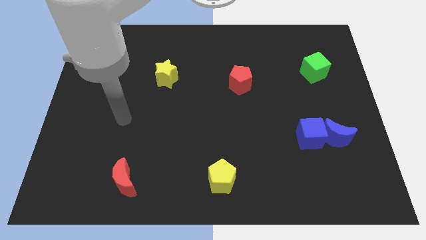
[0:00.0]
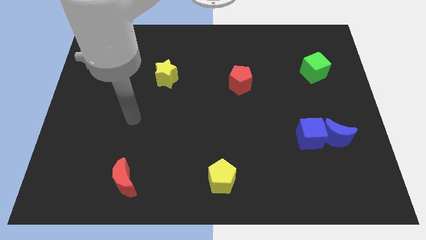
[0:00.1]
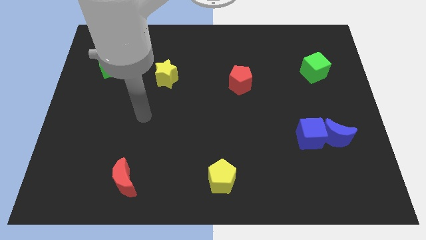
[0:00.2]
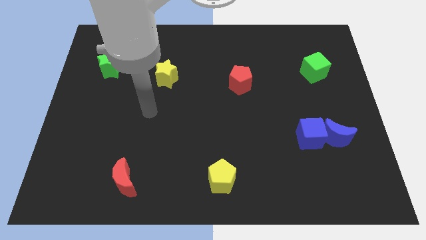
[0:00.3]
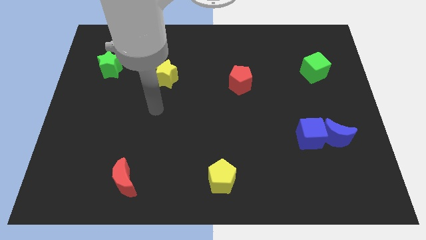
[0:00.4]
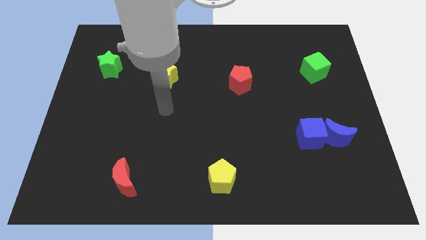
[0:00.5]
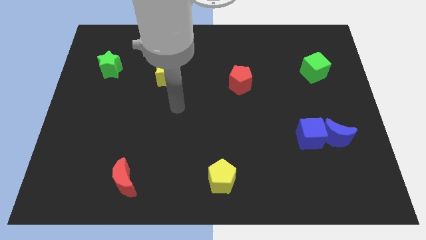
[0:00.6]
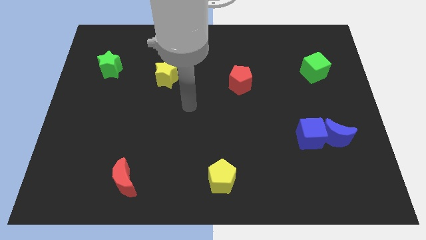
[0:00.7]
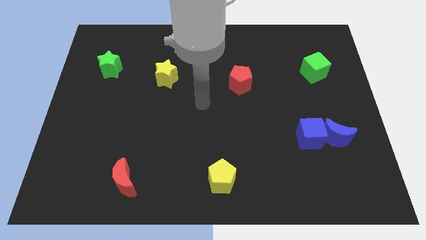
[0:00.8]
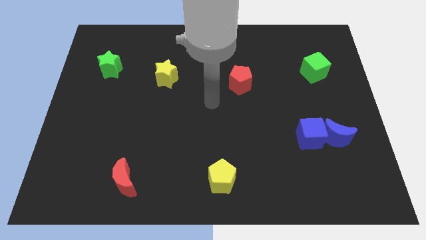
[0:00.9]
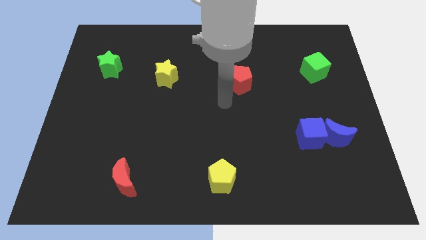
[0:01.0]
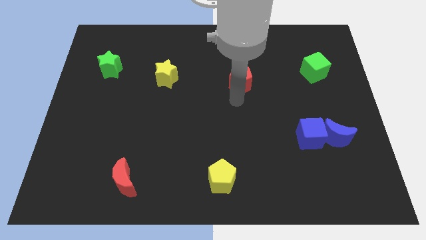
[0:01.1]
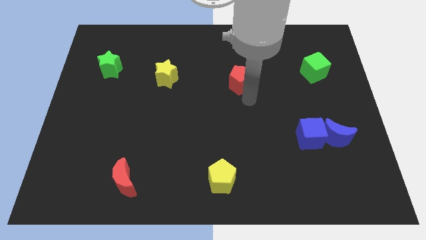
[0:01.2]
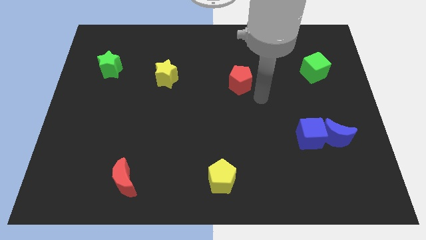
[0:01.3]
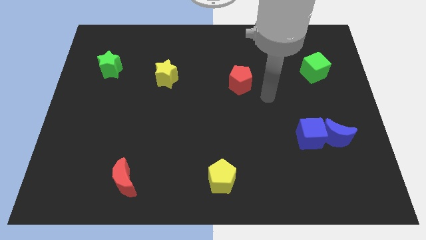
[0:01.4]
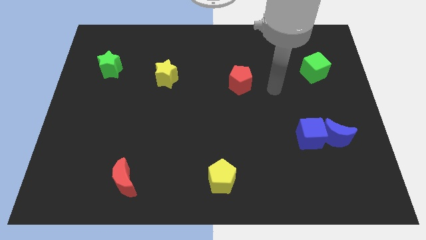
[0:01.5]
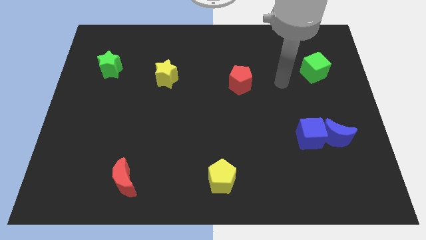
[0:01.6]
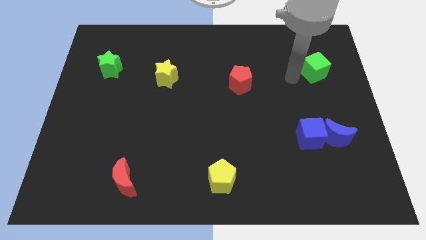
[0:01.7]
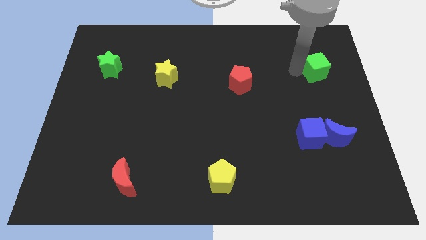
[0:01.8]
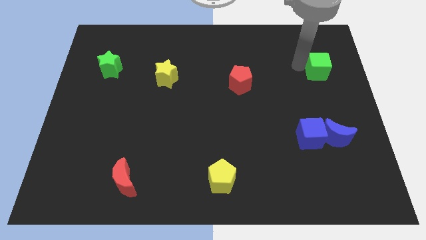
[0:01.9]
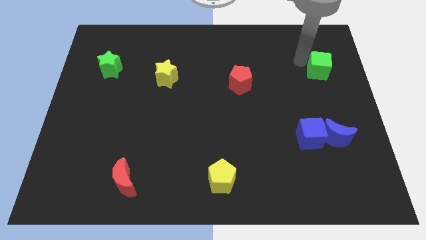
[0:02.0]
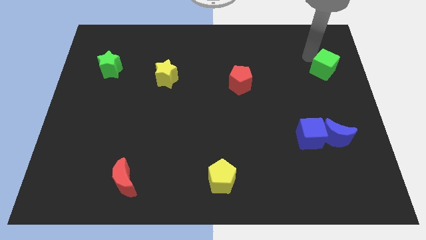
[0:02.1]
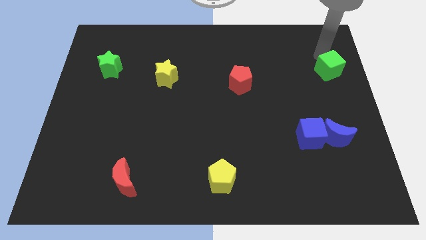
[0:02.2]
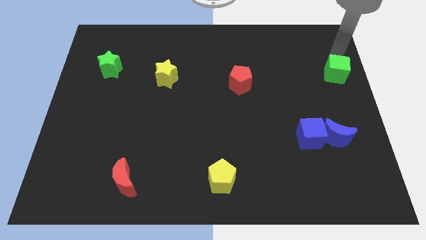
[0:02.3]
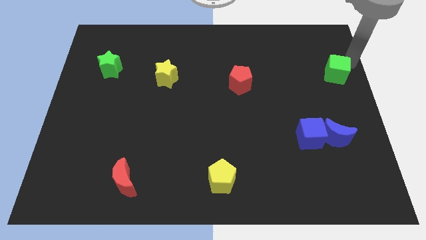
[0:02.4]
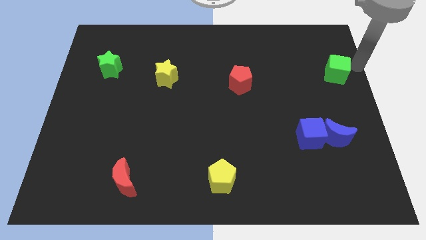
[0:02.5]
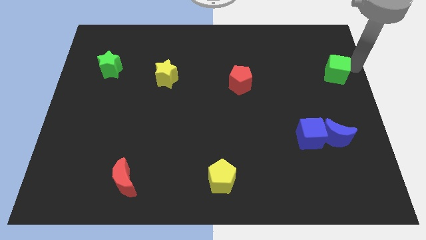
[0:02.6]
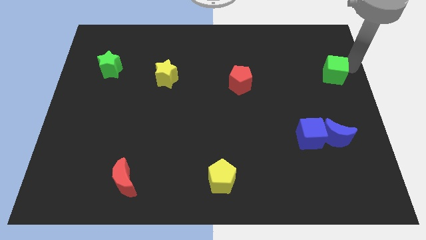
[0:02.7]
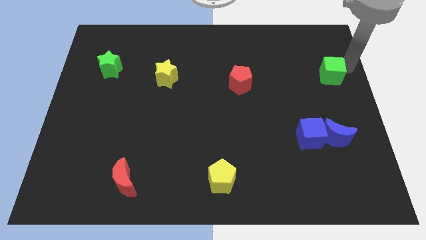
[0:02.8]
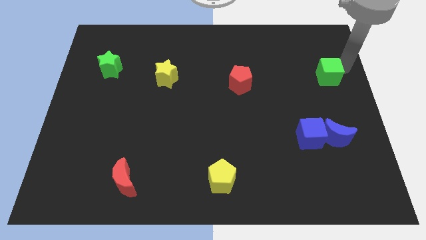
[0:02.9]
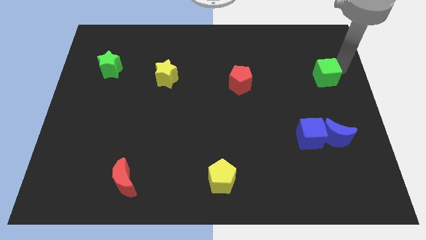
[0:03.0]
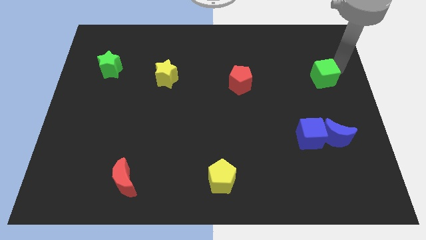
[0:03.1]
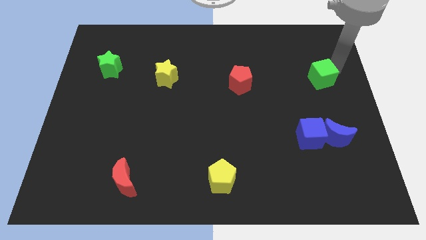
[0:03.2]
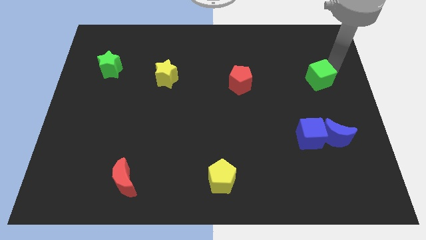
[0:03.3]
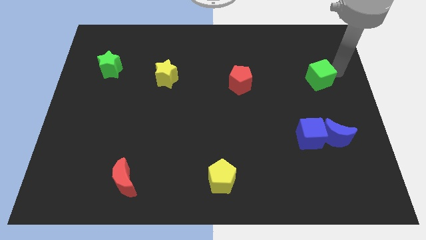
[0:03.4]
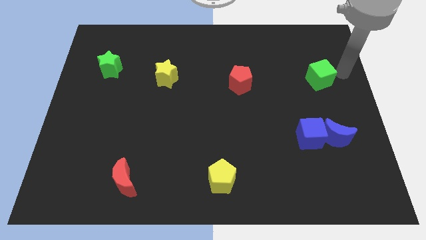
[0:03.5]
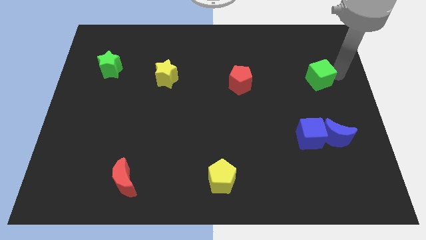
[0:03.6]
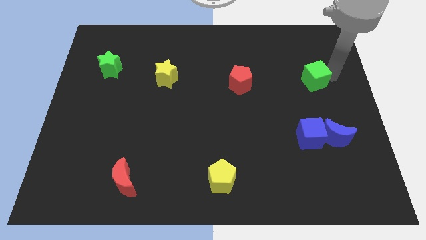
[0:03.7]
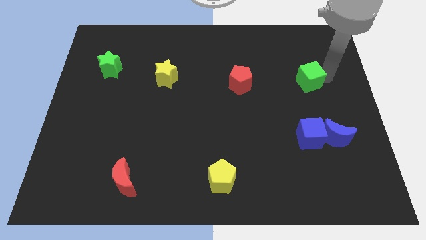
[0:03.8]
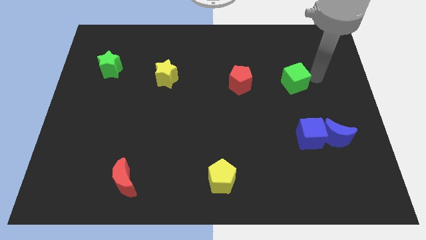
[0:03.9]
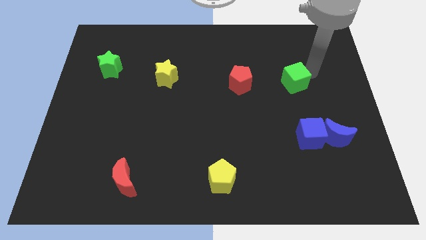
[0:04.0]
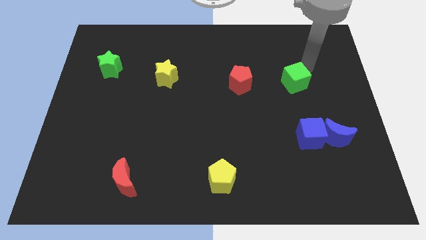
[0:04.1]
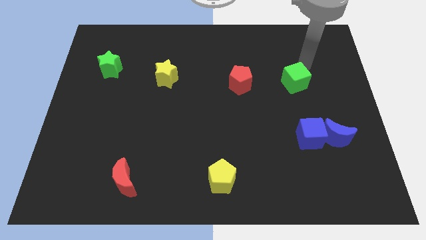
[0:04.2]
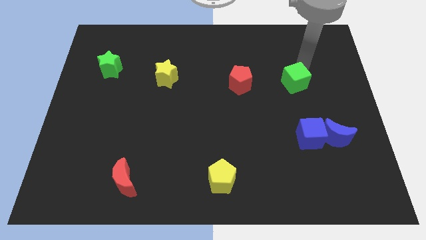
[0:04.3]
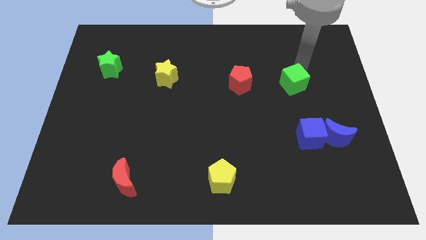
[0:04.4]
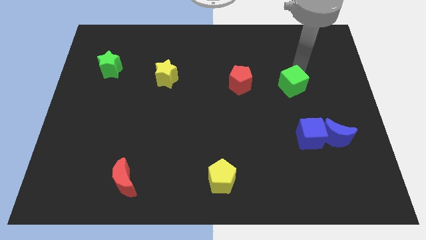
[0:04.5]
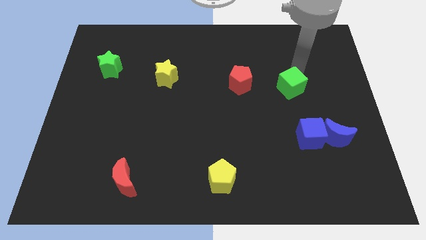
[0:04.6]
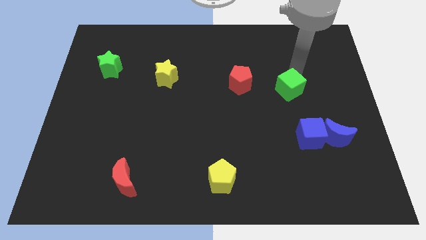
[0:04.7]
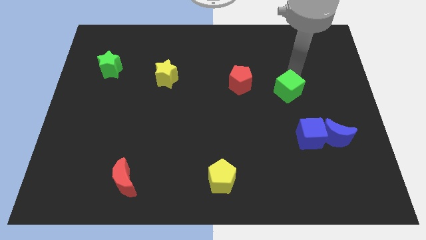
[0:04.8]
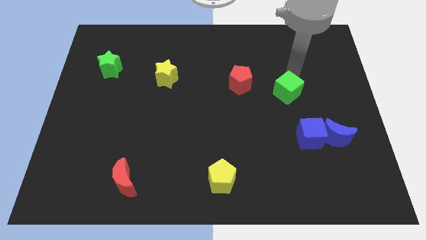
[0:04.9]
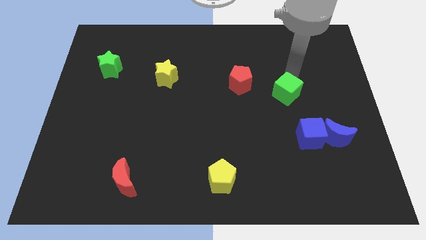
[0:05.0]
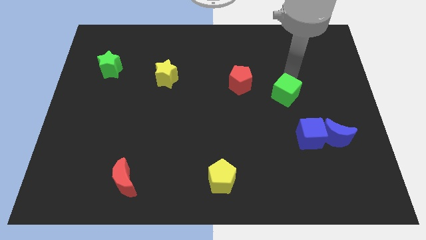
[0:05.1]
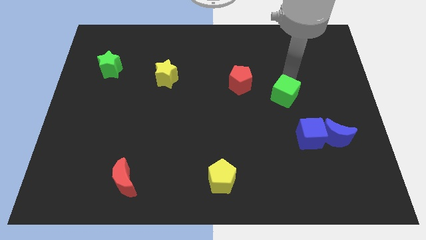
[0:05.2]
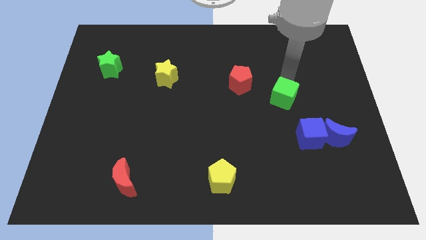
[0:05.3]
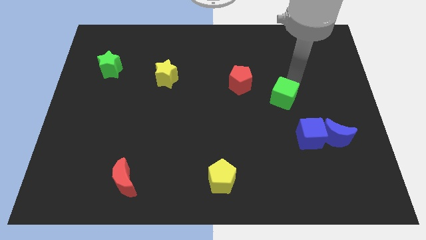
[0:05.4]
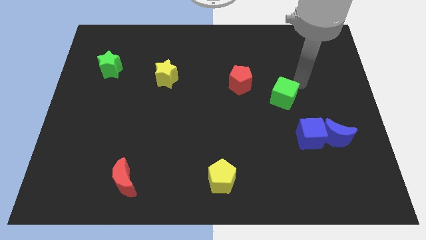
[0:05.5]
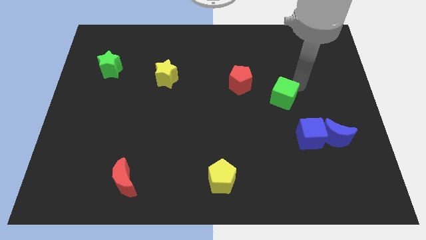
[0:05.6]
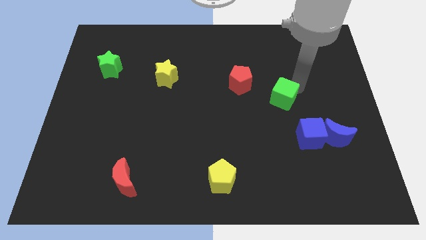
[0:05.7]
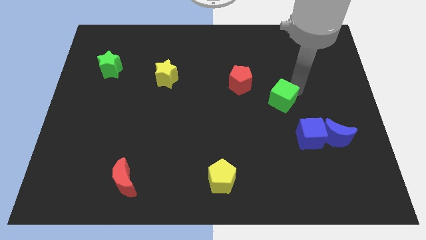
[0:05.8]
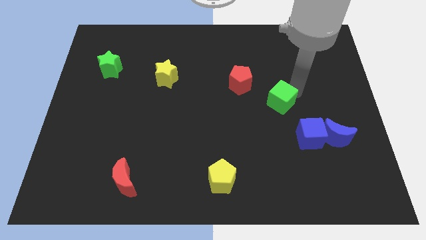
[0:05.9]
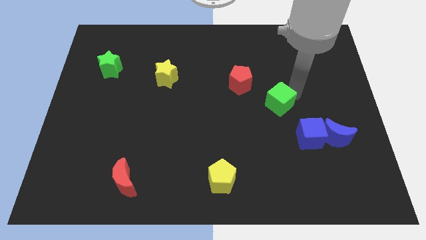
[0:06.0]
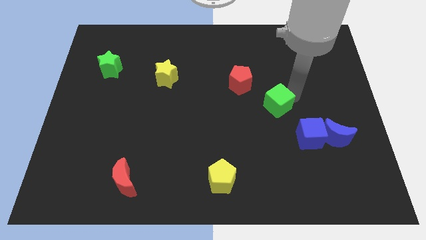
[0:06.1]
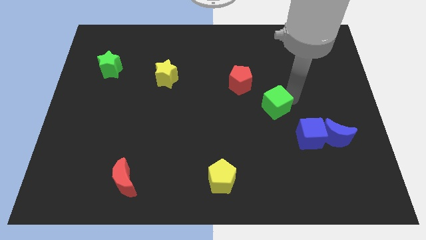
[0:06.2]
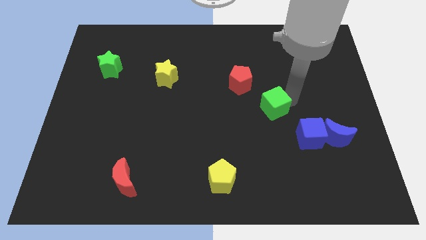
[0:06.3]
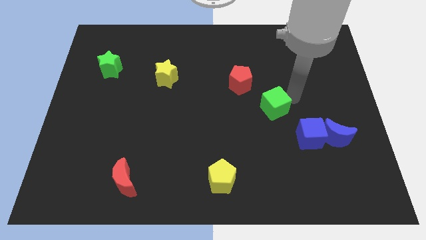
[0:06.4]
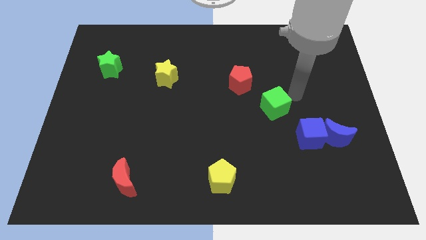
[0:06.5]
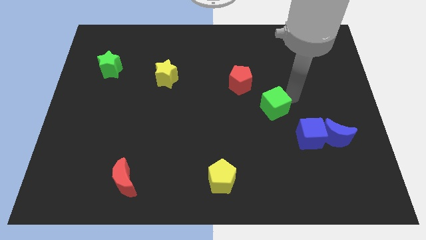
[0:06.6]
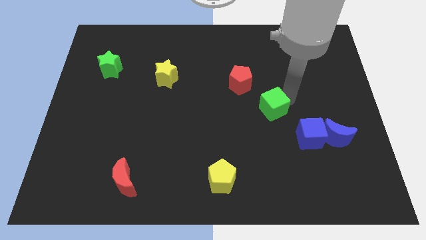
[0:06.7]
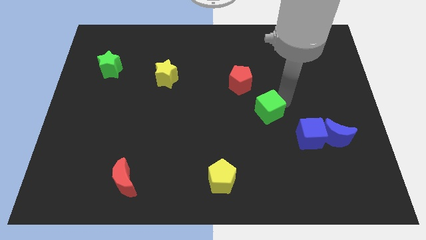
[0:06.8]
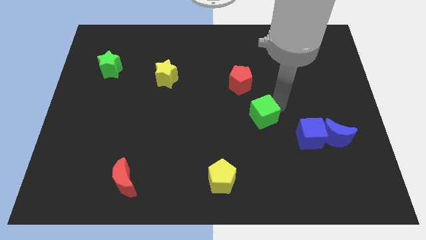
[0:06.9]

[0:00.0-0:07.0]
put the green cube to the bottom of the red pentagon

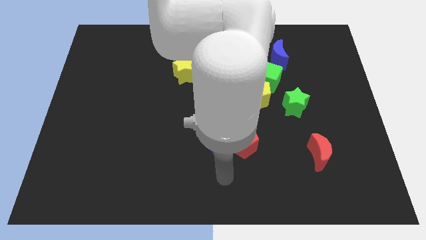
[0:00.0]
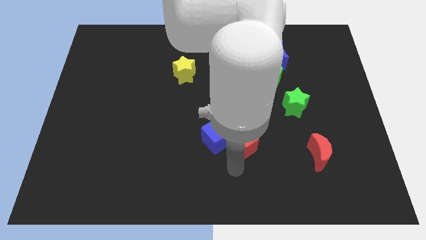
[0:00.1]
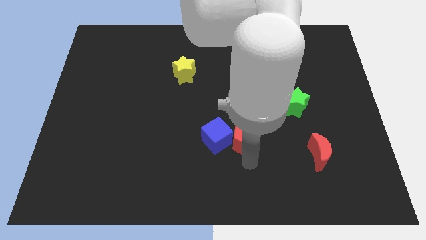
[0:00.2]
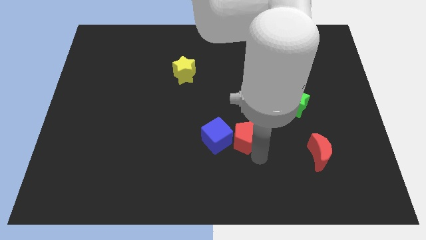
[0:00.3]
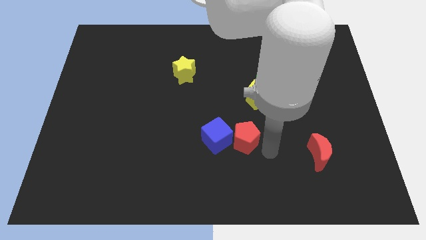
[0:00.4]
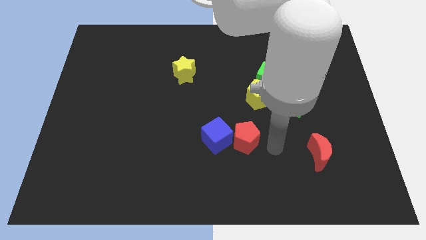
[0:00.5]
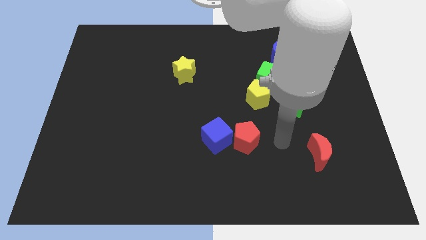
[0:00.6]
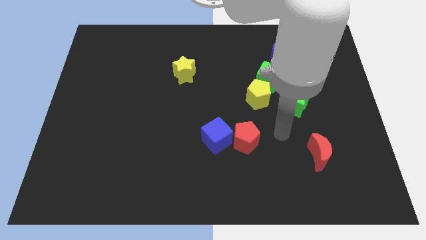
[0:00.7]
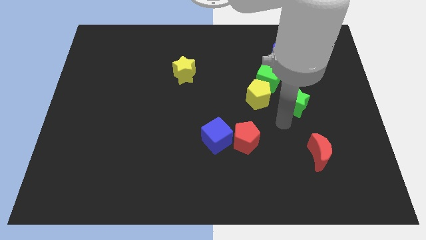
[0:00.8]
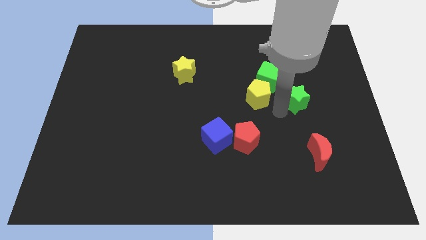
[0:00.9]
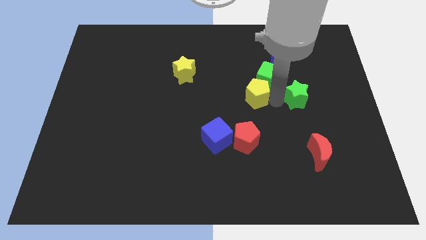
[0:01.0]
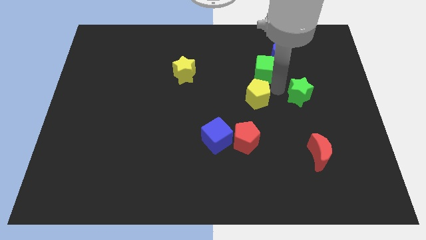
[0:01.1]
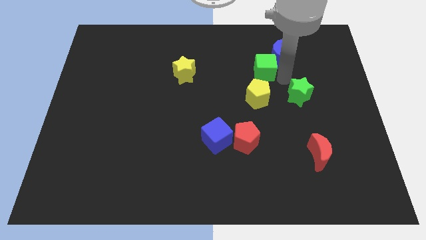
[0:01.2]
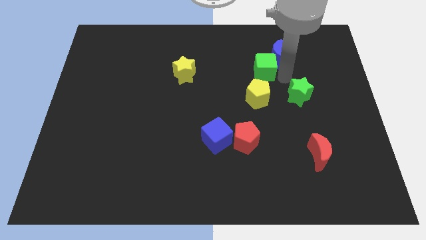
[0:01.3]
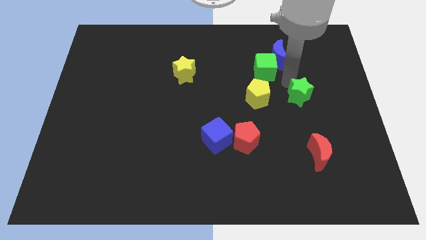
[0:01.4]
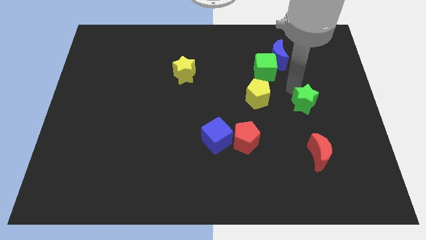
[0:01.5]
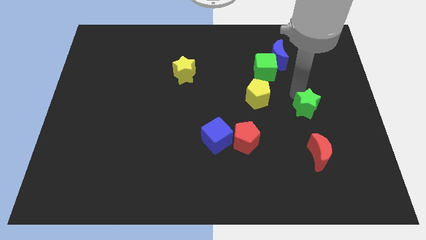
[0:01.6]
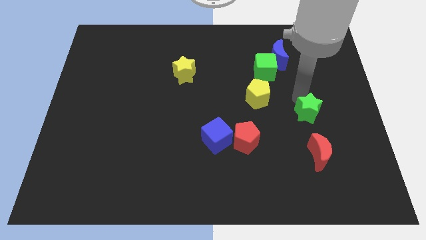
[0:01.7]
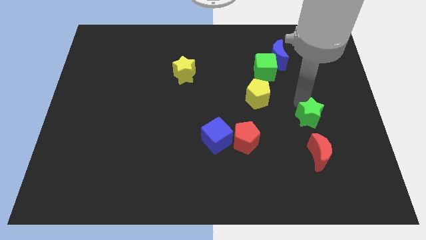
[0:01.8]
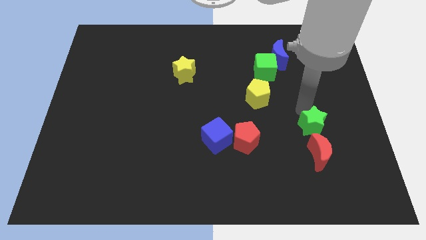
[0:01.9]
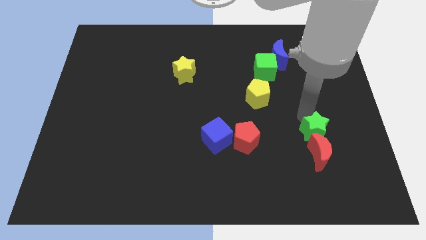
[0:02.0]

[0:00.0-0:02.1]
put the green star to the top right of the red moon
